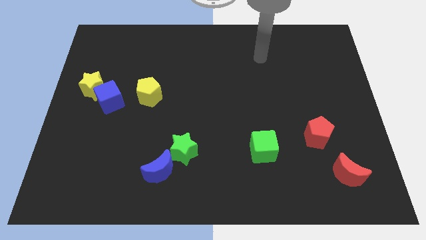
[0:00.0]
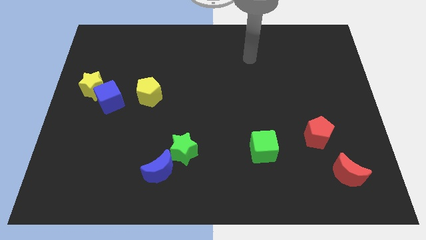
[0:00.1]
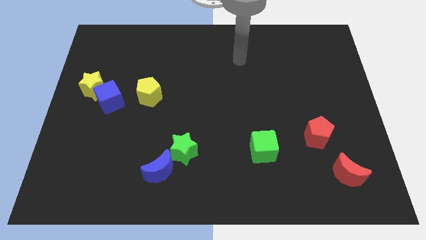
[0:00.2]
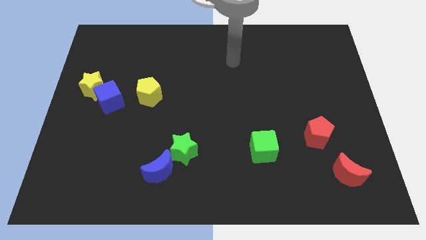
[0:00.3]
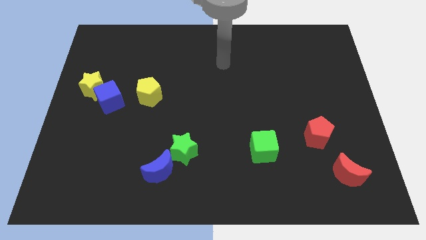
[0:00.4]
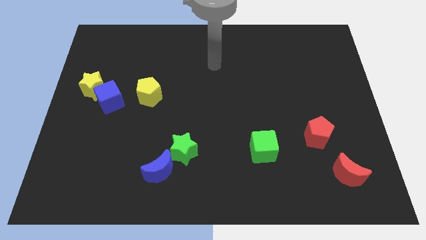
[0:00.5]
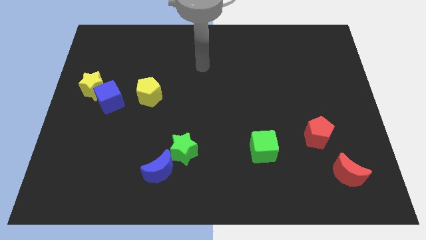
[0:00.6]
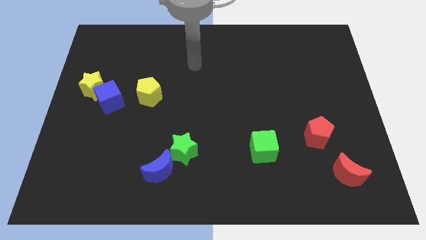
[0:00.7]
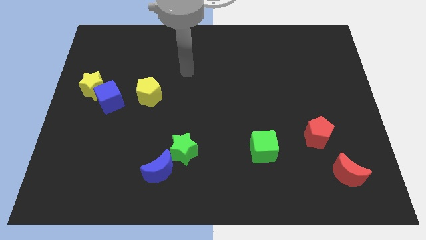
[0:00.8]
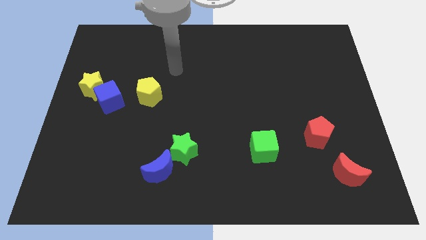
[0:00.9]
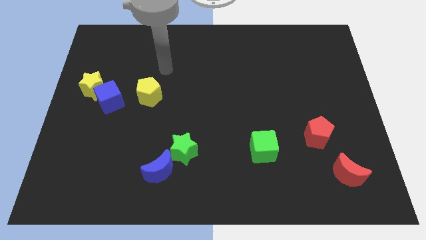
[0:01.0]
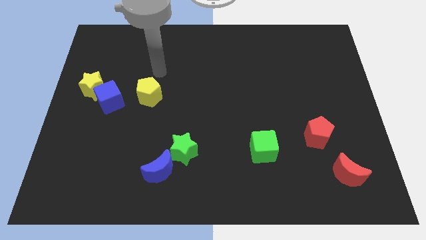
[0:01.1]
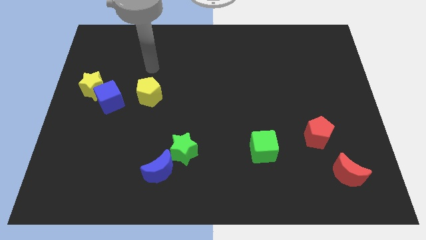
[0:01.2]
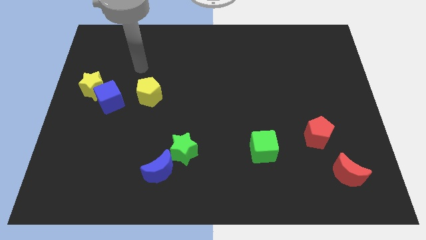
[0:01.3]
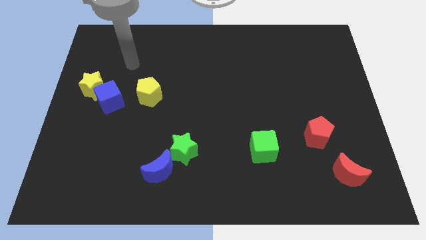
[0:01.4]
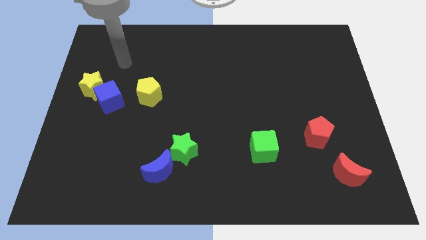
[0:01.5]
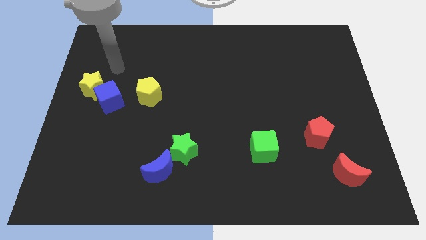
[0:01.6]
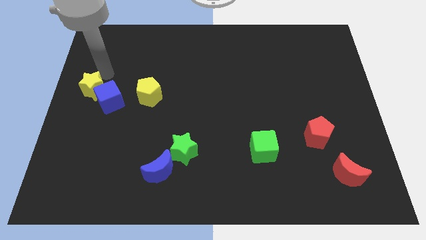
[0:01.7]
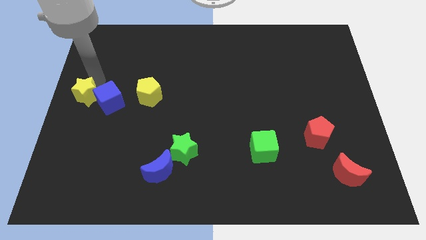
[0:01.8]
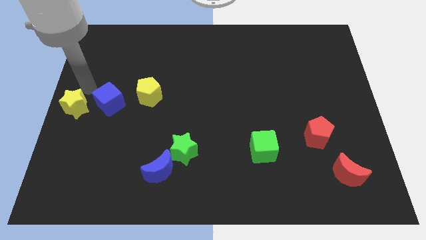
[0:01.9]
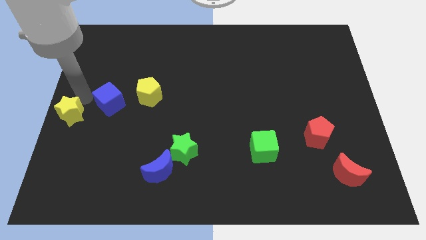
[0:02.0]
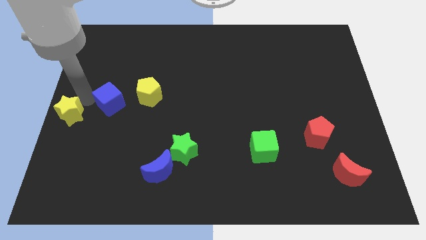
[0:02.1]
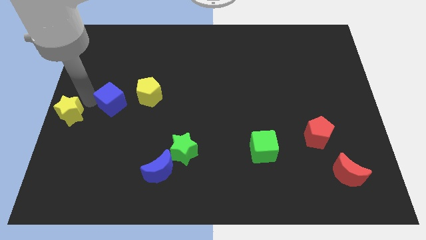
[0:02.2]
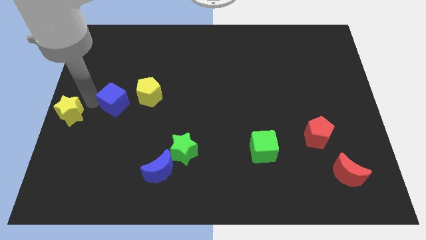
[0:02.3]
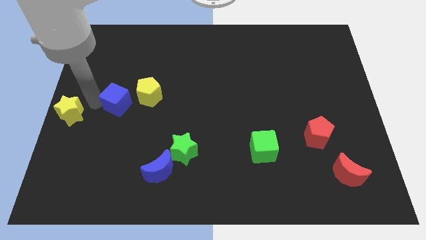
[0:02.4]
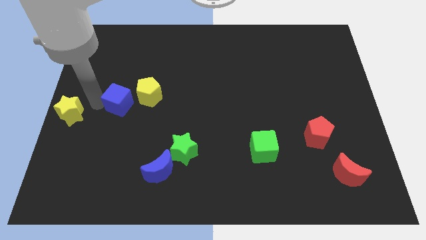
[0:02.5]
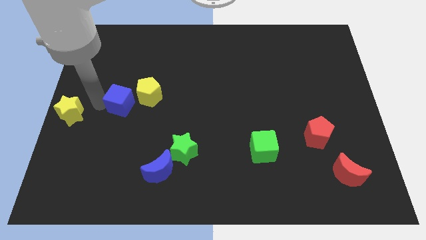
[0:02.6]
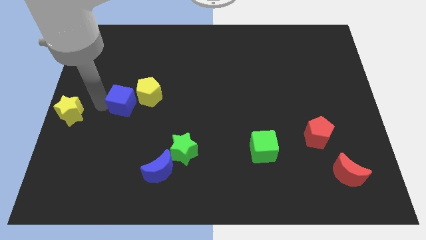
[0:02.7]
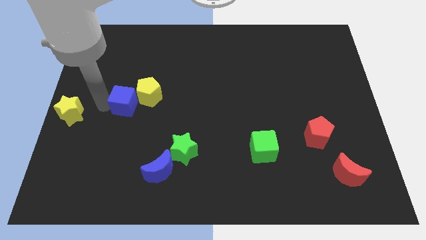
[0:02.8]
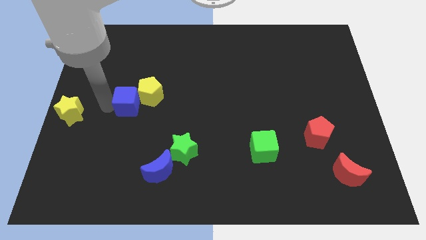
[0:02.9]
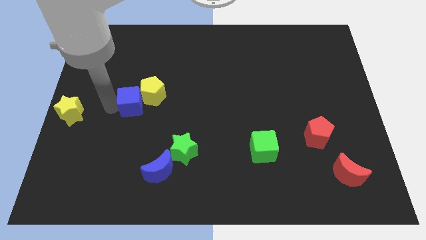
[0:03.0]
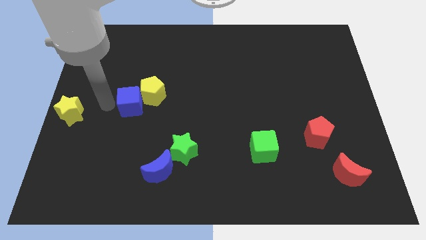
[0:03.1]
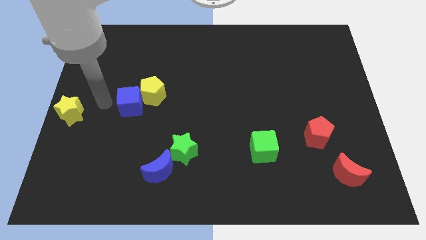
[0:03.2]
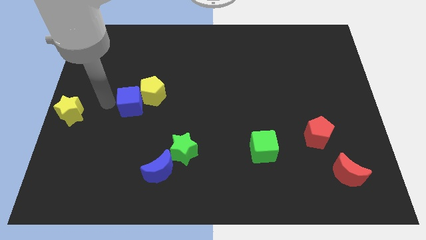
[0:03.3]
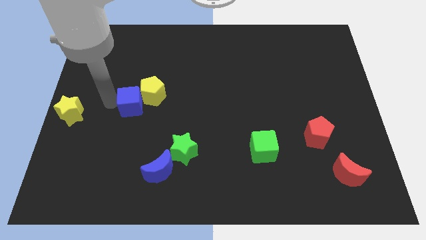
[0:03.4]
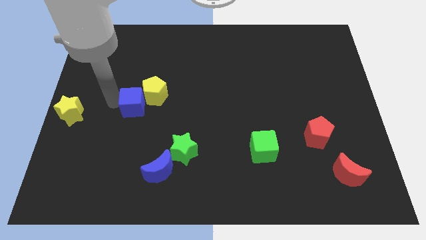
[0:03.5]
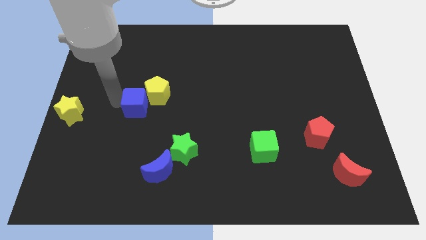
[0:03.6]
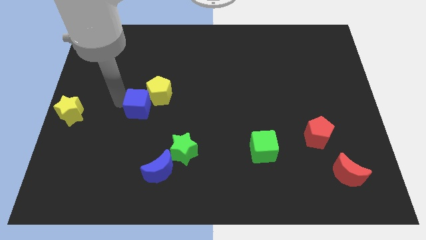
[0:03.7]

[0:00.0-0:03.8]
push the blue cube to the right a little

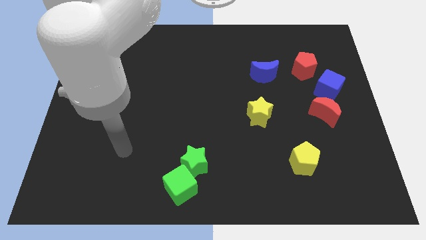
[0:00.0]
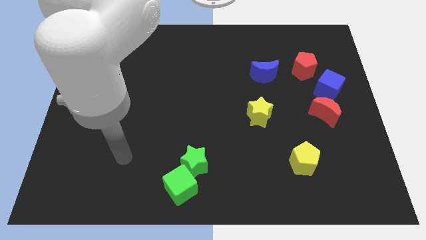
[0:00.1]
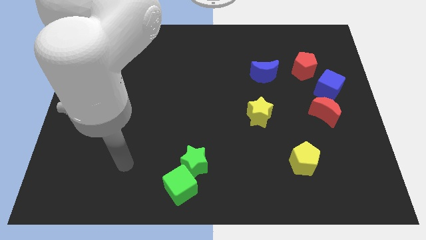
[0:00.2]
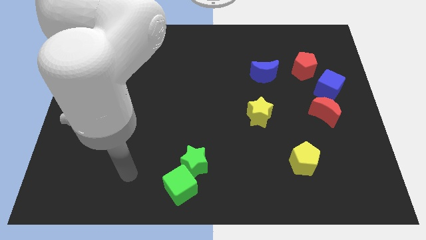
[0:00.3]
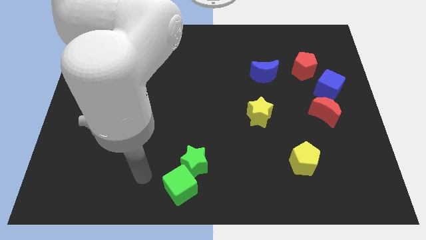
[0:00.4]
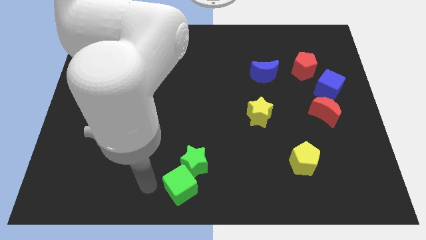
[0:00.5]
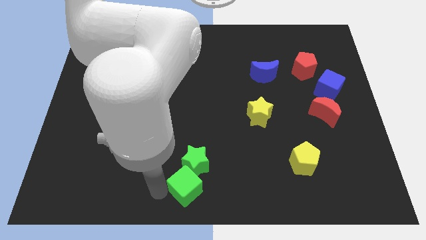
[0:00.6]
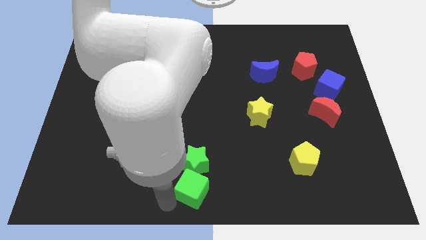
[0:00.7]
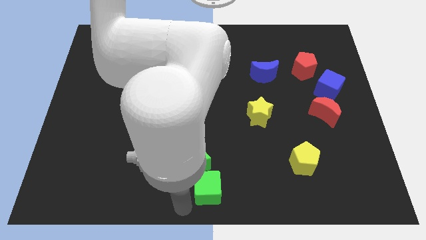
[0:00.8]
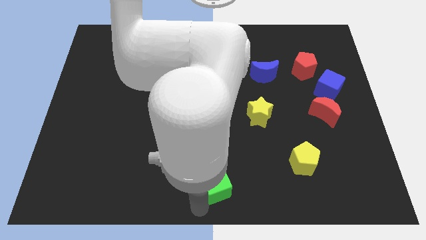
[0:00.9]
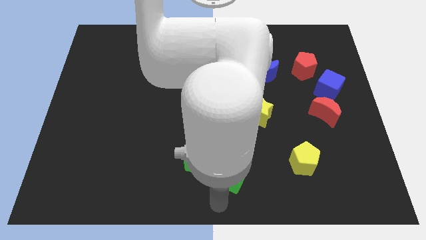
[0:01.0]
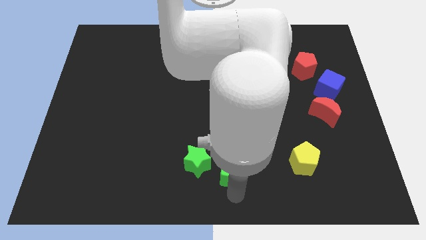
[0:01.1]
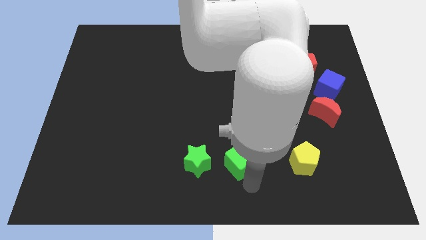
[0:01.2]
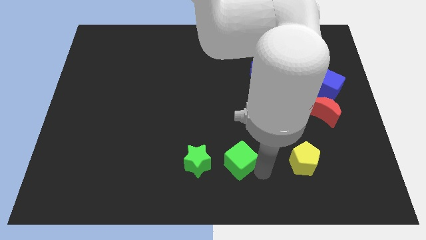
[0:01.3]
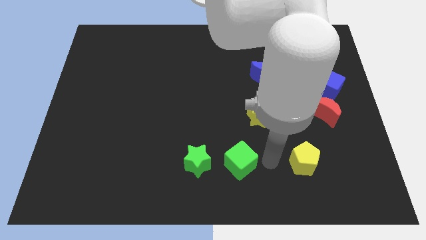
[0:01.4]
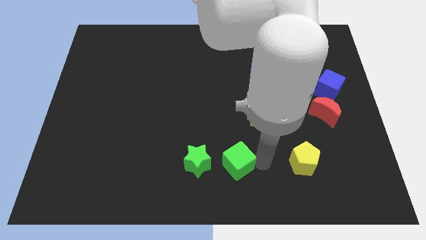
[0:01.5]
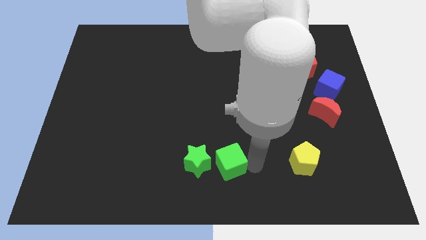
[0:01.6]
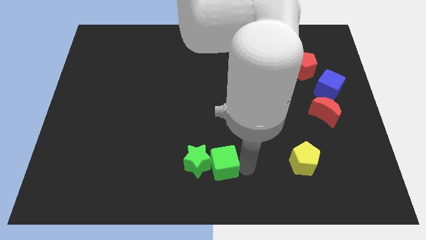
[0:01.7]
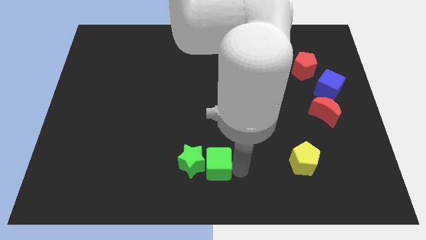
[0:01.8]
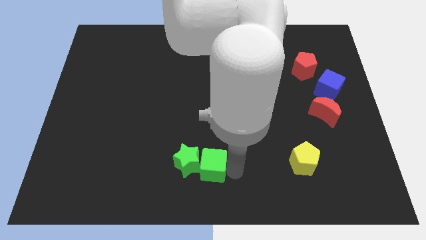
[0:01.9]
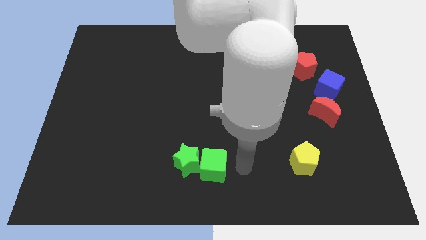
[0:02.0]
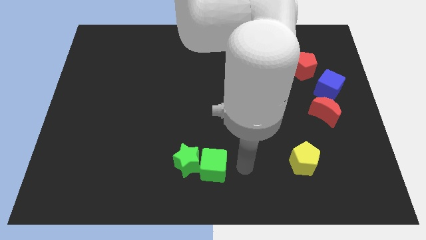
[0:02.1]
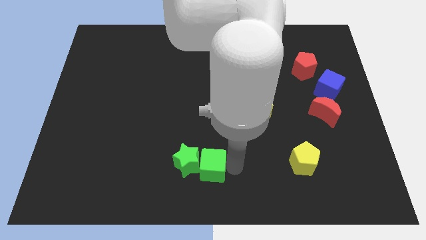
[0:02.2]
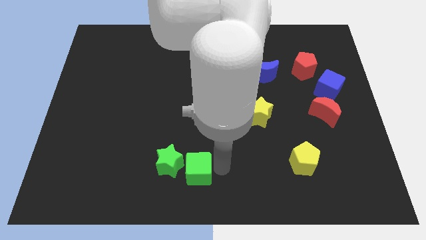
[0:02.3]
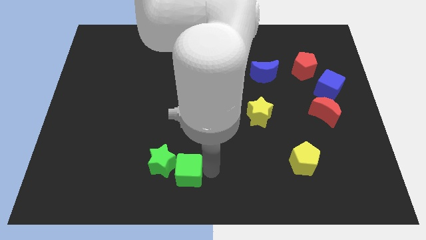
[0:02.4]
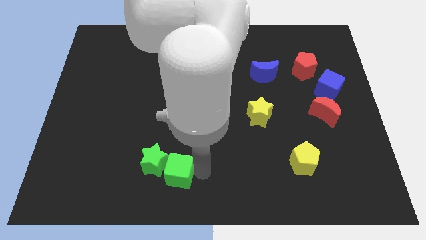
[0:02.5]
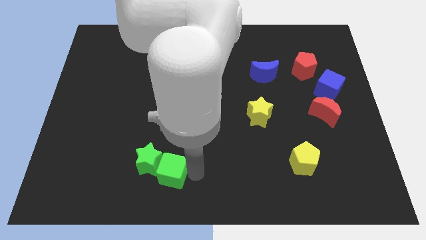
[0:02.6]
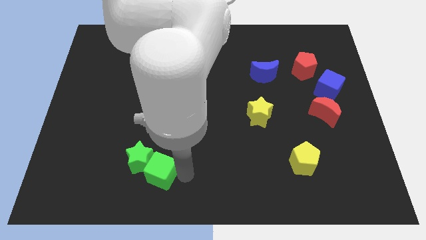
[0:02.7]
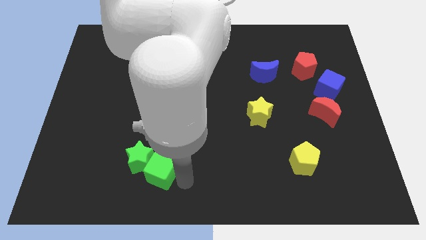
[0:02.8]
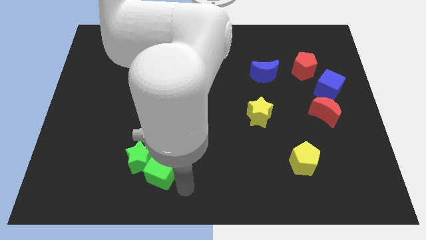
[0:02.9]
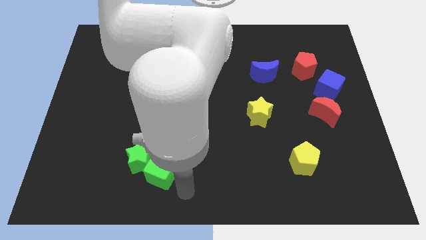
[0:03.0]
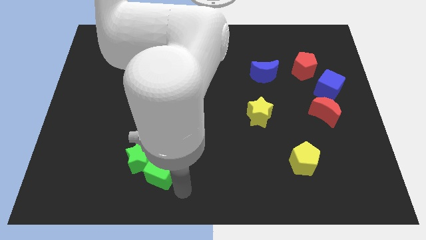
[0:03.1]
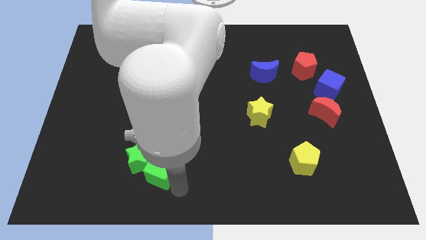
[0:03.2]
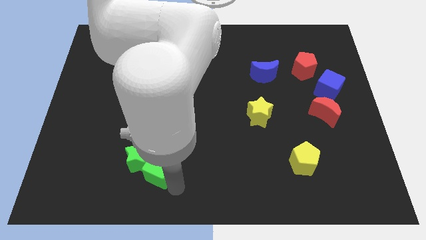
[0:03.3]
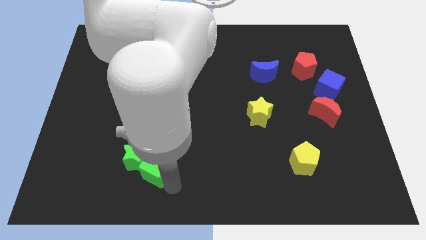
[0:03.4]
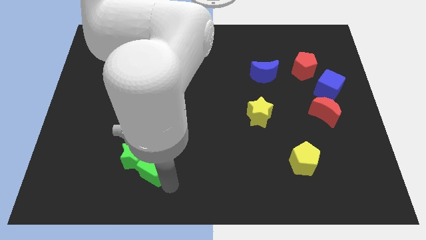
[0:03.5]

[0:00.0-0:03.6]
move the green cube slightly up and then left

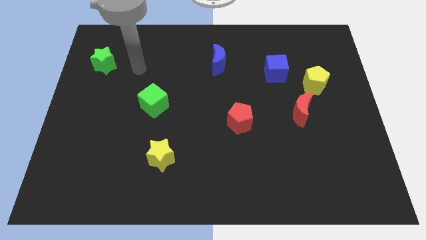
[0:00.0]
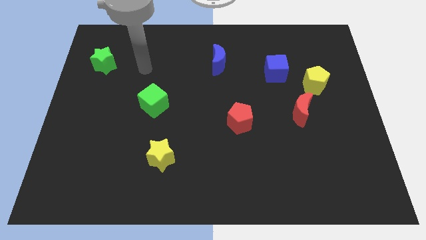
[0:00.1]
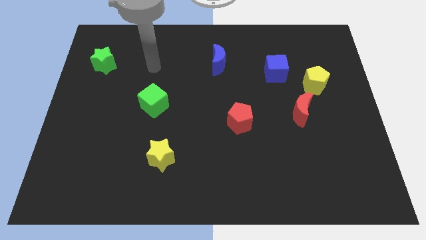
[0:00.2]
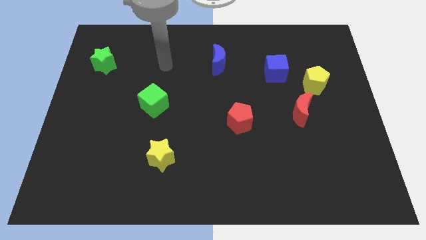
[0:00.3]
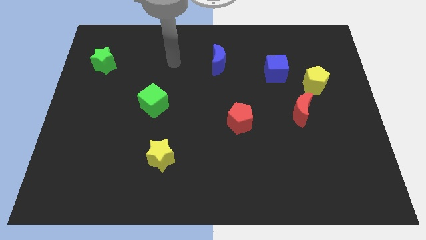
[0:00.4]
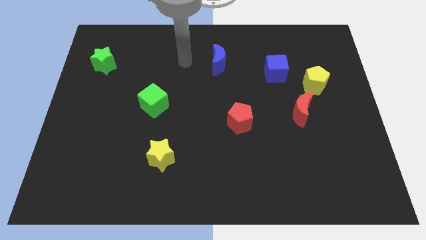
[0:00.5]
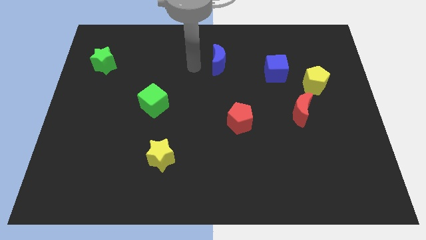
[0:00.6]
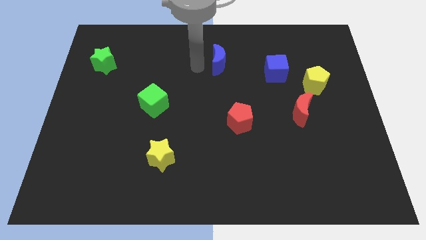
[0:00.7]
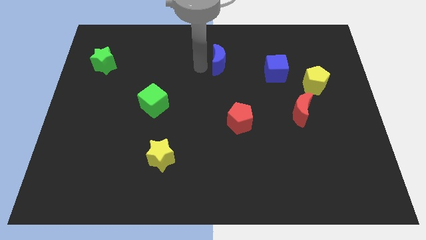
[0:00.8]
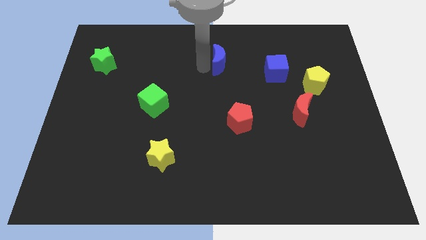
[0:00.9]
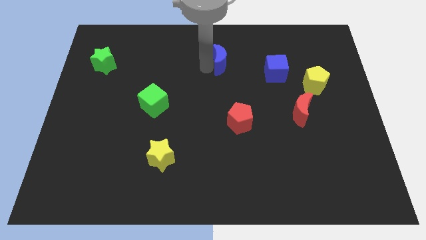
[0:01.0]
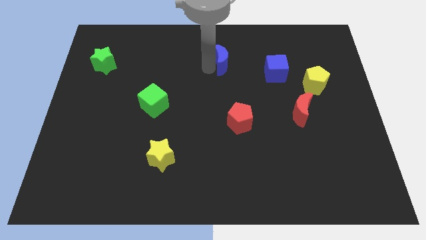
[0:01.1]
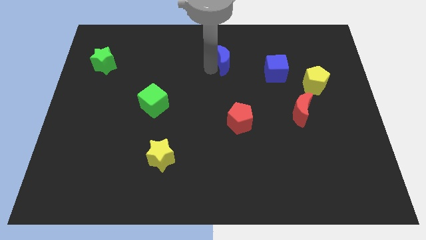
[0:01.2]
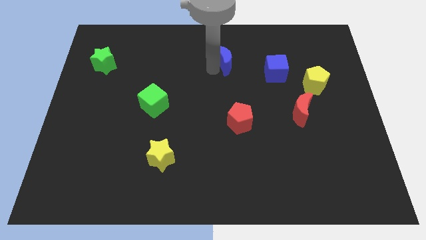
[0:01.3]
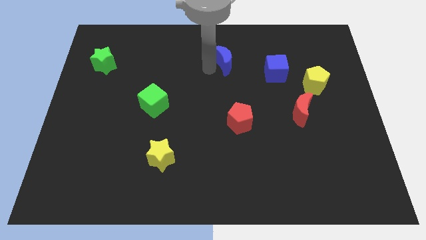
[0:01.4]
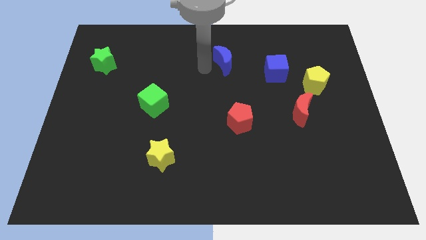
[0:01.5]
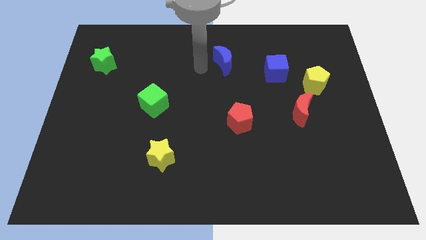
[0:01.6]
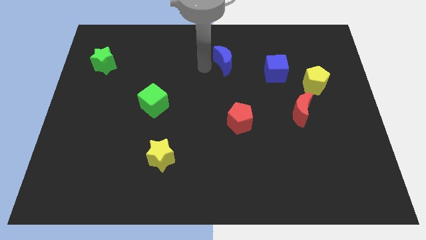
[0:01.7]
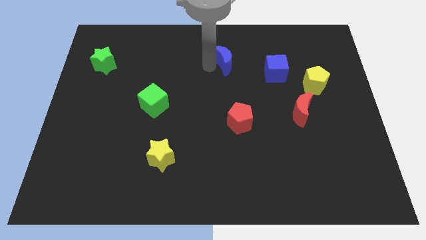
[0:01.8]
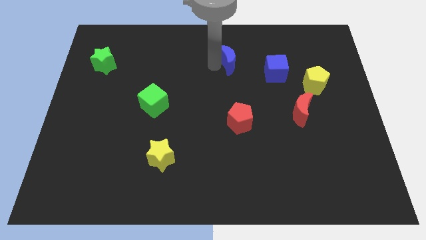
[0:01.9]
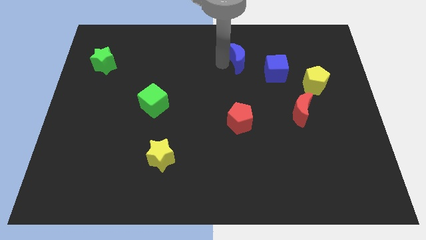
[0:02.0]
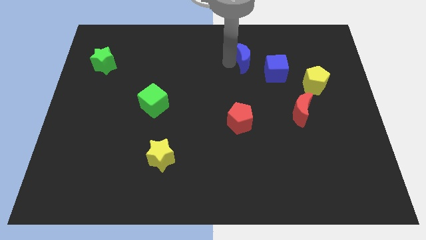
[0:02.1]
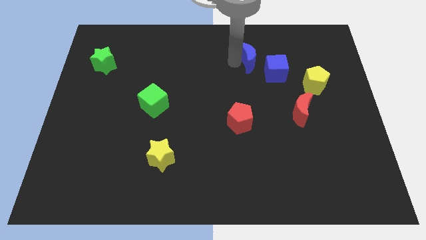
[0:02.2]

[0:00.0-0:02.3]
push the blue moon somewhat right
